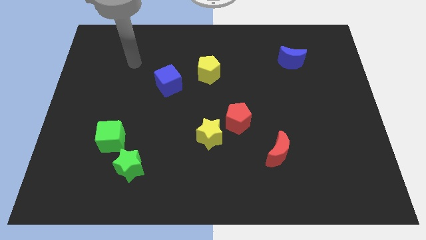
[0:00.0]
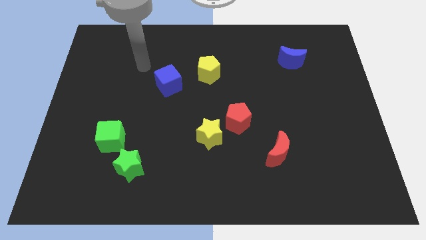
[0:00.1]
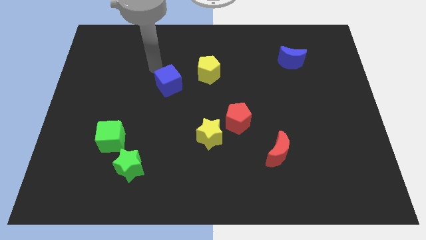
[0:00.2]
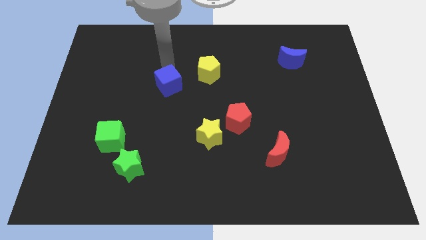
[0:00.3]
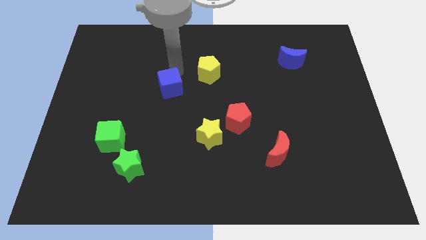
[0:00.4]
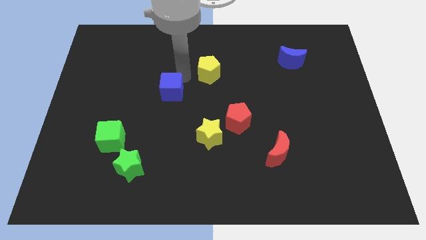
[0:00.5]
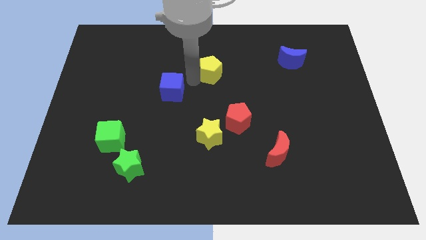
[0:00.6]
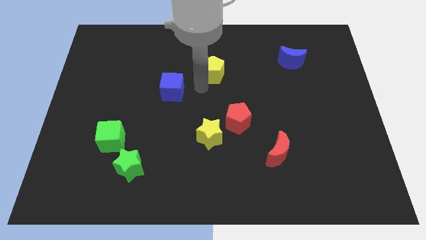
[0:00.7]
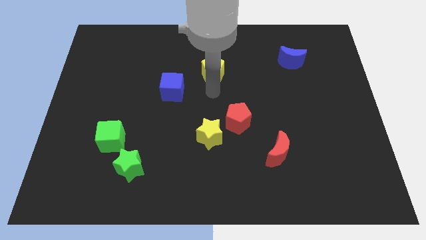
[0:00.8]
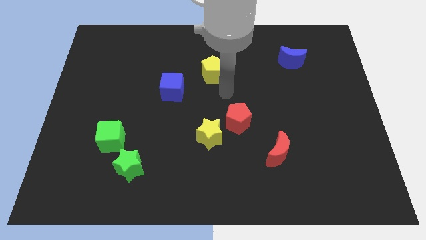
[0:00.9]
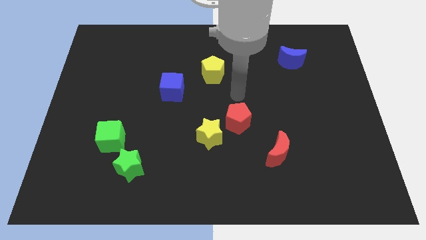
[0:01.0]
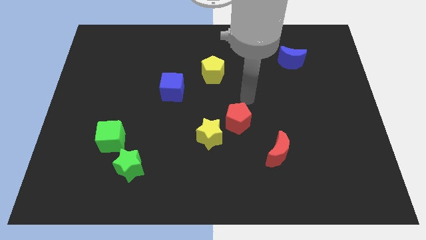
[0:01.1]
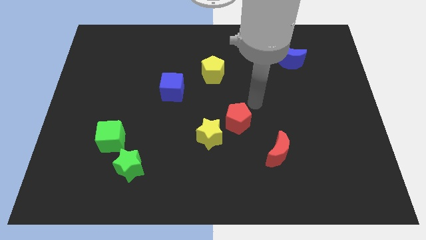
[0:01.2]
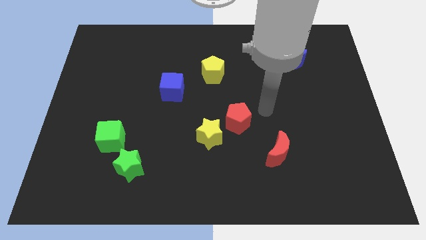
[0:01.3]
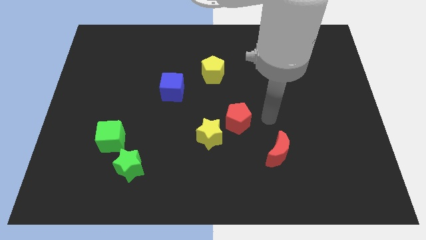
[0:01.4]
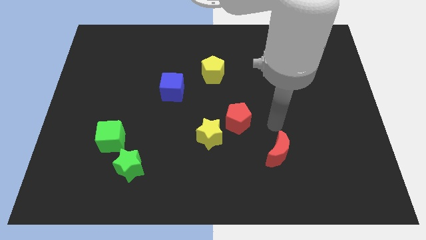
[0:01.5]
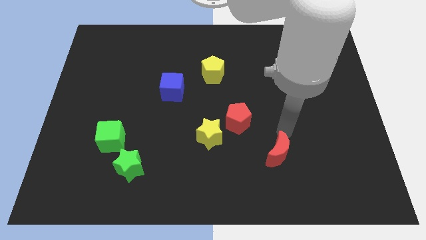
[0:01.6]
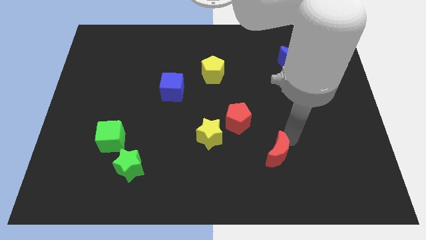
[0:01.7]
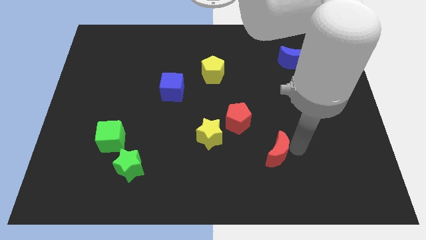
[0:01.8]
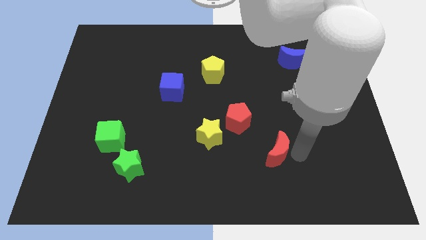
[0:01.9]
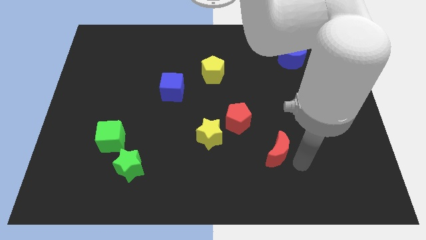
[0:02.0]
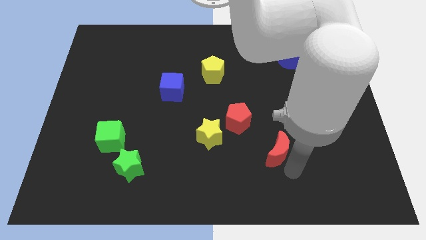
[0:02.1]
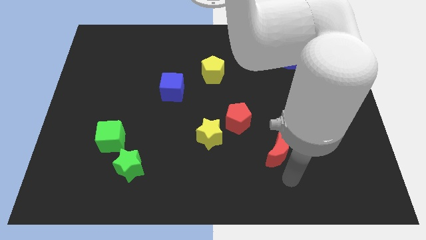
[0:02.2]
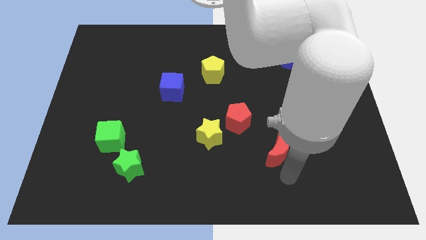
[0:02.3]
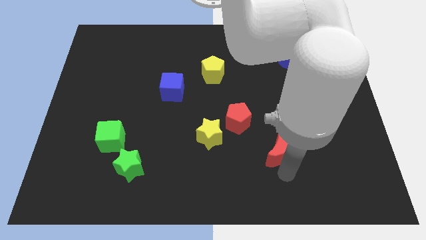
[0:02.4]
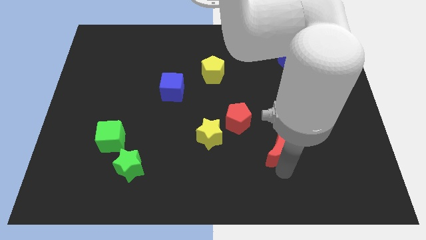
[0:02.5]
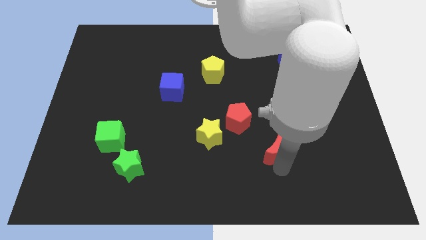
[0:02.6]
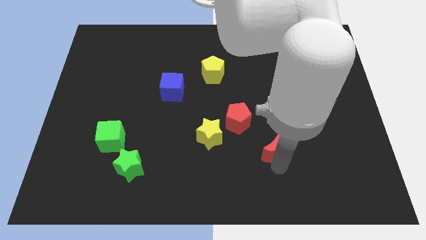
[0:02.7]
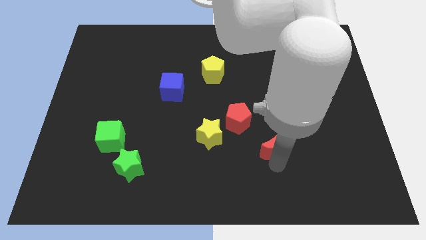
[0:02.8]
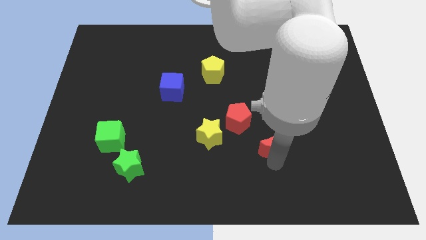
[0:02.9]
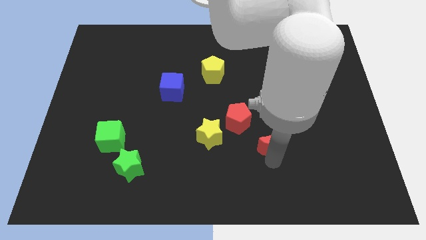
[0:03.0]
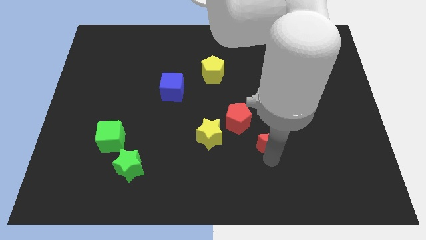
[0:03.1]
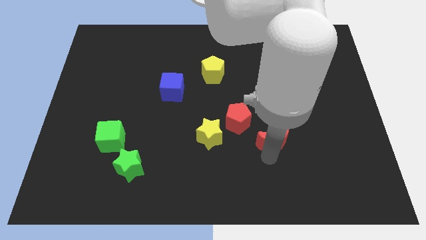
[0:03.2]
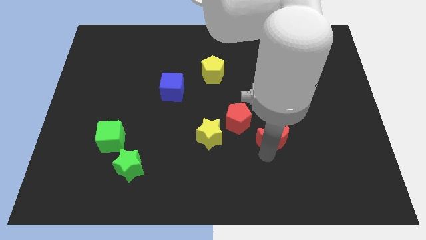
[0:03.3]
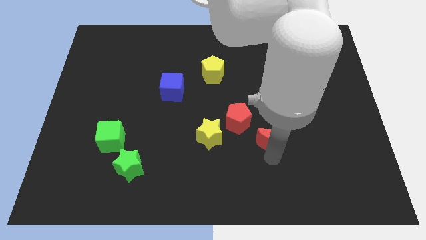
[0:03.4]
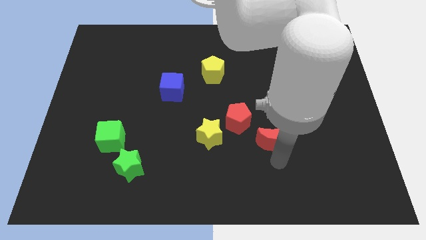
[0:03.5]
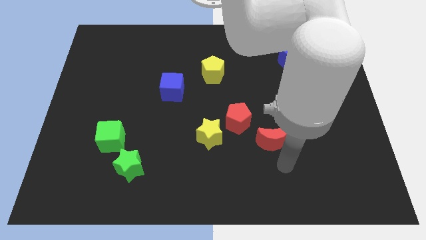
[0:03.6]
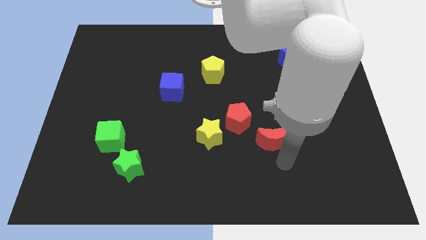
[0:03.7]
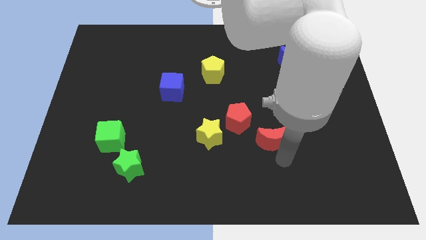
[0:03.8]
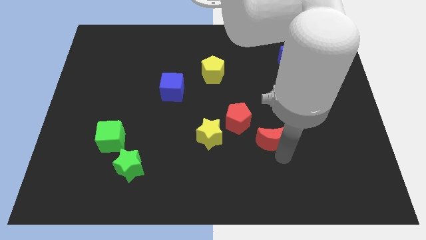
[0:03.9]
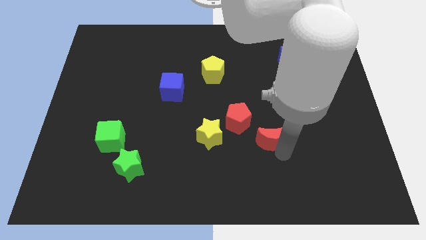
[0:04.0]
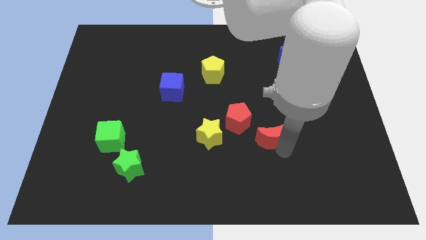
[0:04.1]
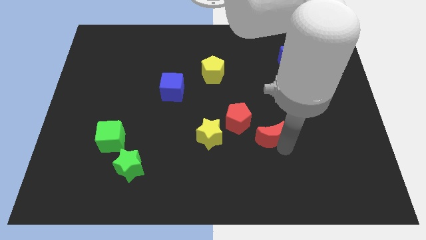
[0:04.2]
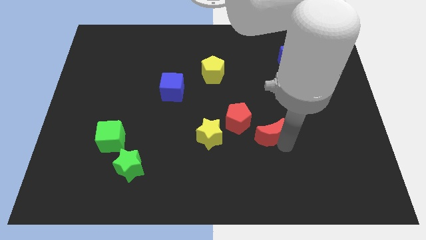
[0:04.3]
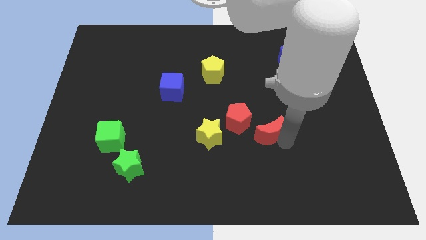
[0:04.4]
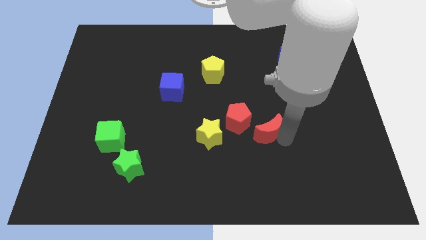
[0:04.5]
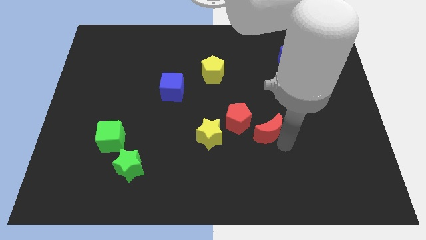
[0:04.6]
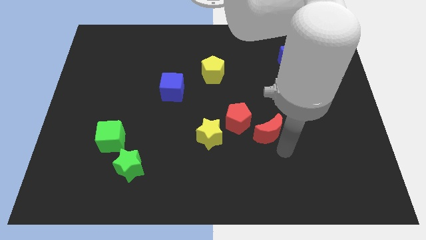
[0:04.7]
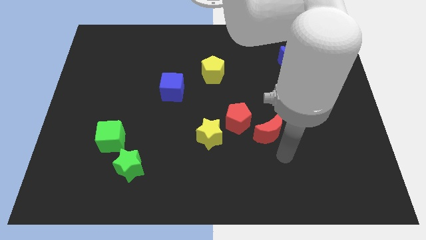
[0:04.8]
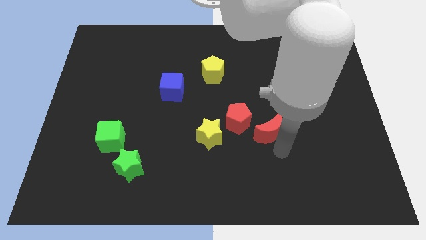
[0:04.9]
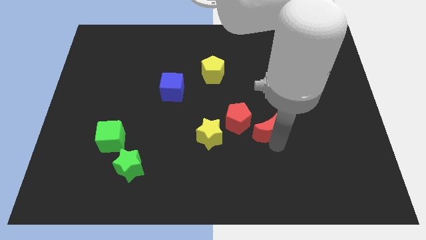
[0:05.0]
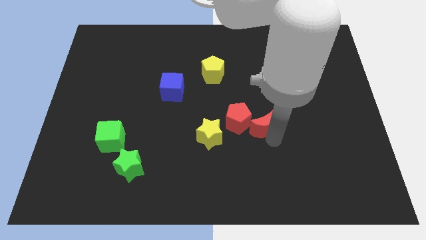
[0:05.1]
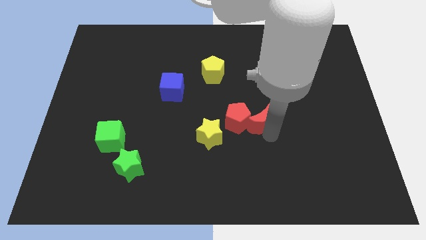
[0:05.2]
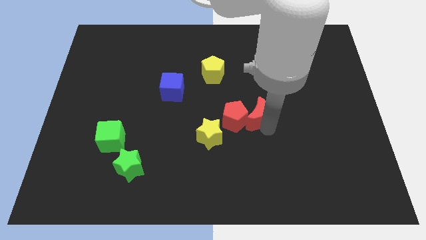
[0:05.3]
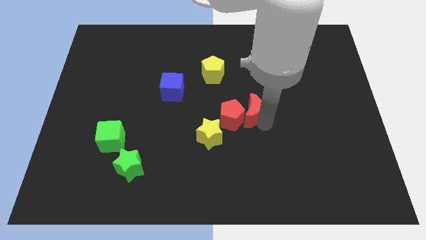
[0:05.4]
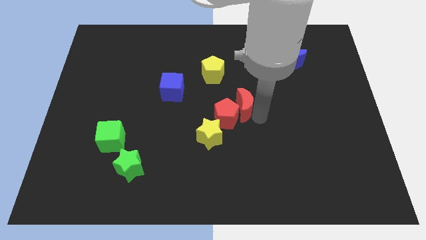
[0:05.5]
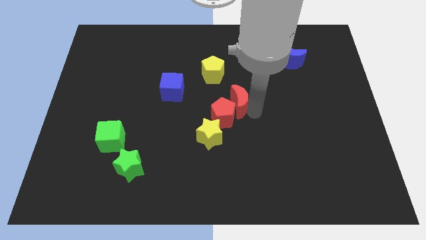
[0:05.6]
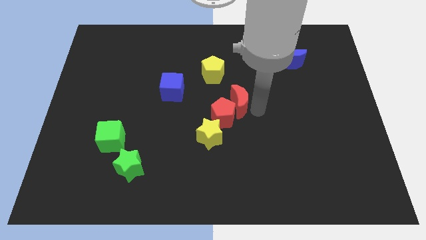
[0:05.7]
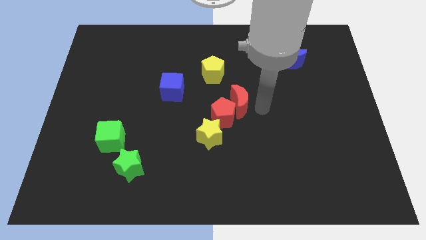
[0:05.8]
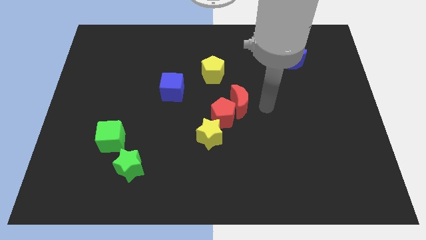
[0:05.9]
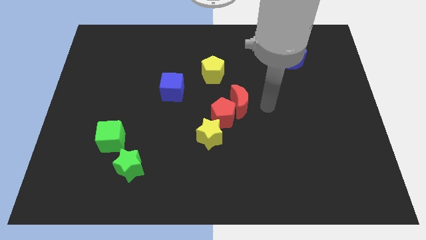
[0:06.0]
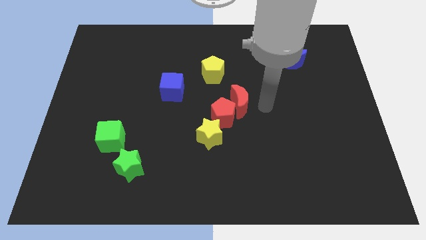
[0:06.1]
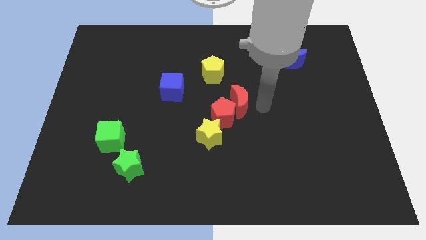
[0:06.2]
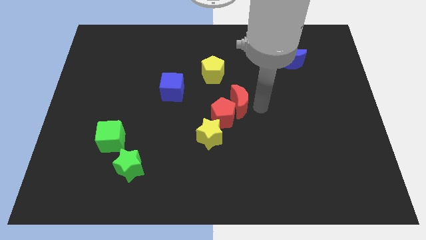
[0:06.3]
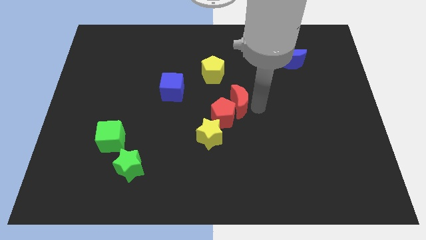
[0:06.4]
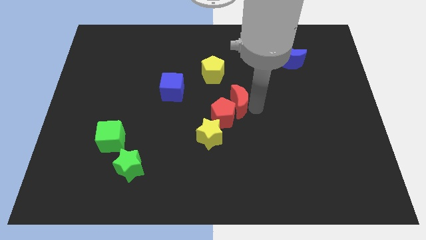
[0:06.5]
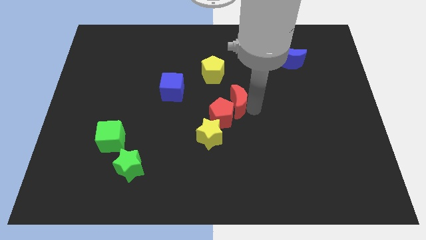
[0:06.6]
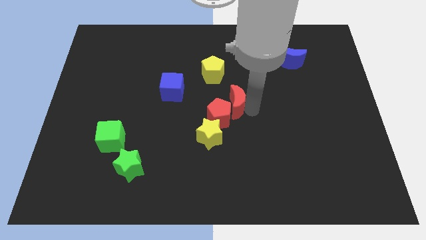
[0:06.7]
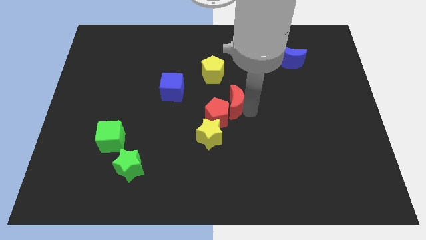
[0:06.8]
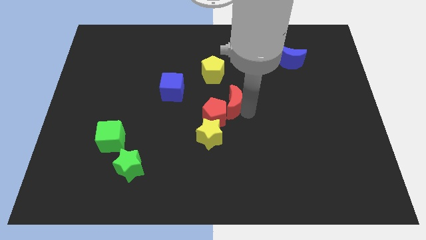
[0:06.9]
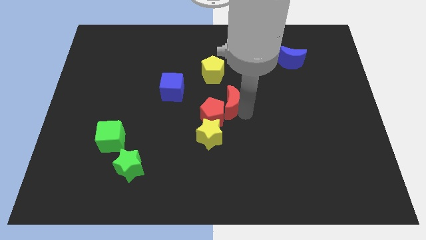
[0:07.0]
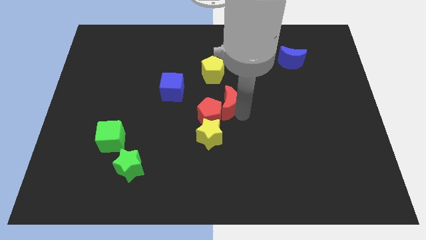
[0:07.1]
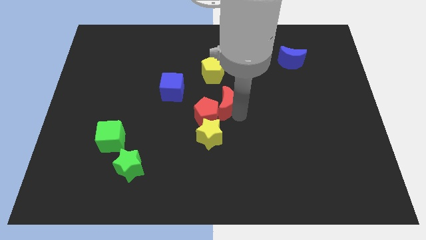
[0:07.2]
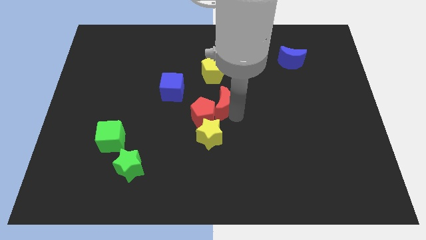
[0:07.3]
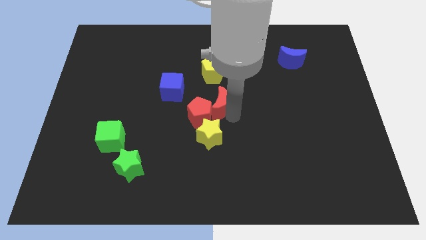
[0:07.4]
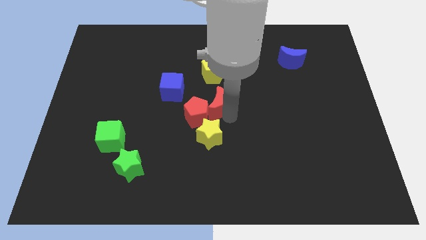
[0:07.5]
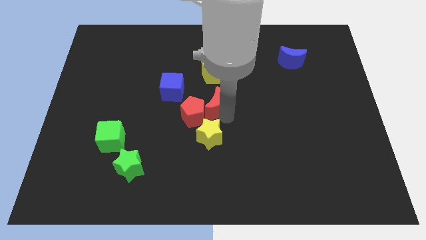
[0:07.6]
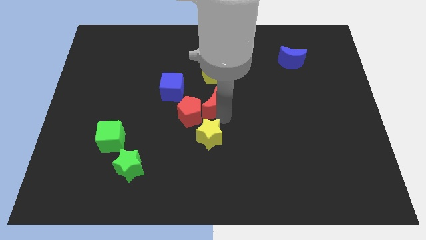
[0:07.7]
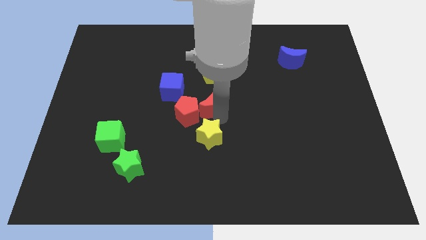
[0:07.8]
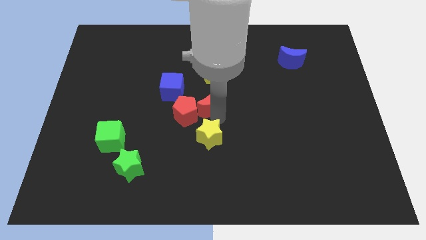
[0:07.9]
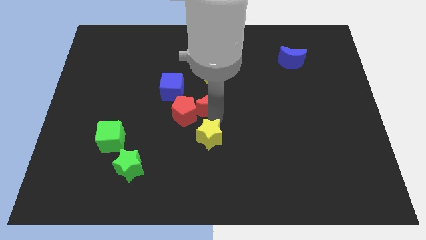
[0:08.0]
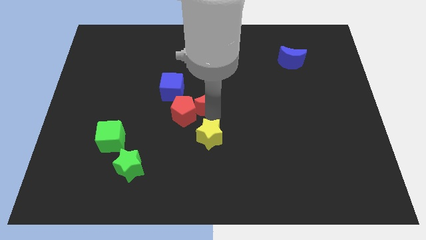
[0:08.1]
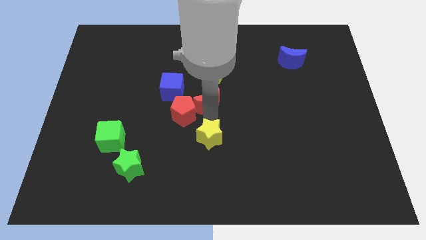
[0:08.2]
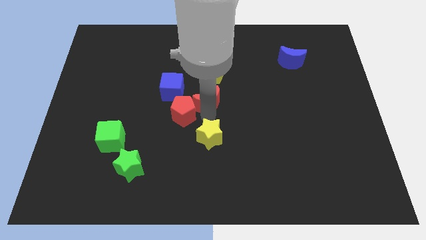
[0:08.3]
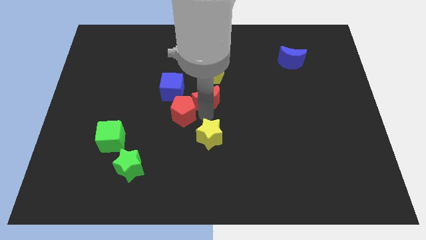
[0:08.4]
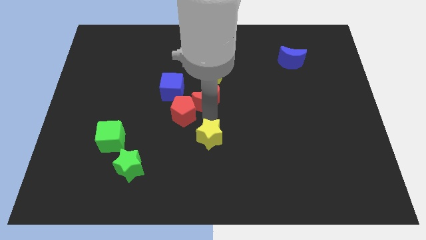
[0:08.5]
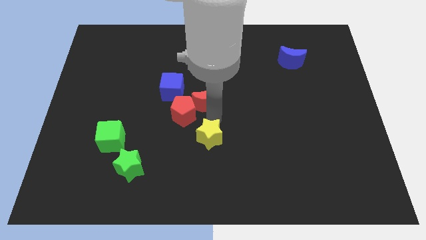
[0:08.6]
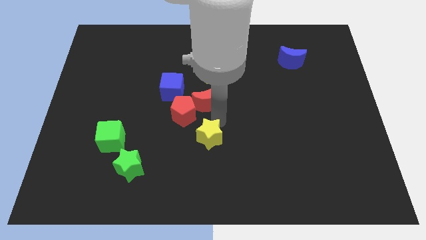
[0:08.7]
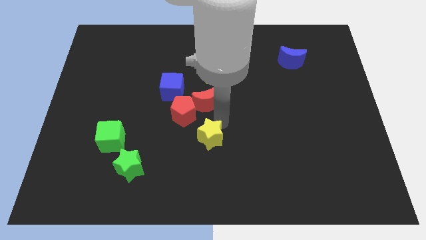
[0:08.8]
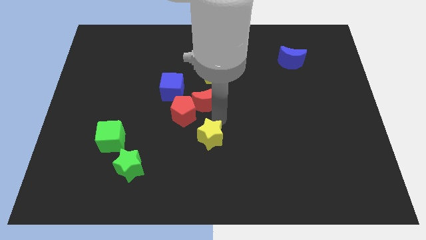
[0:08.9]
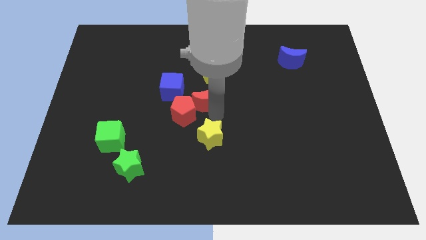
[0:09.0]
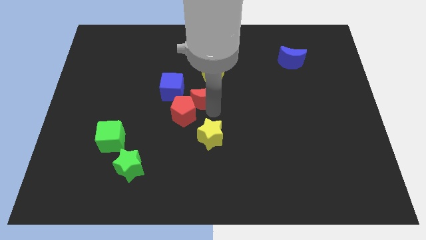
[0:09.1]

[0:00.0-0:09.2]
push the red moon to the bottom left of the yellow pentagon
